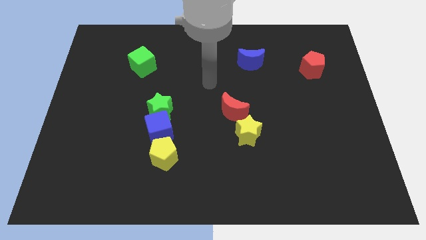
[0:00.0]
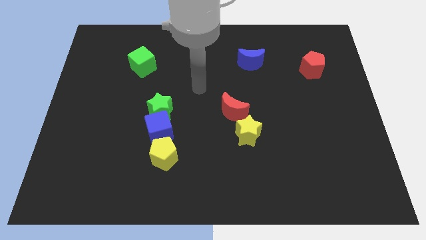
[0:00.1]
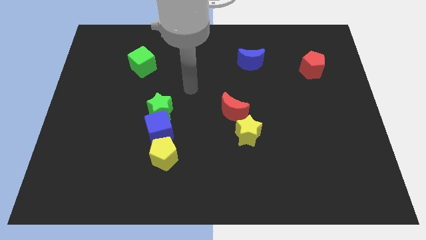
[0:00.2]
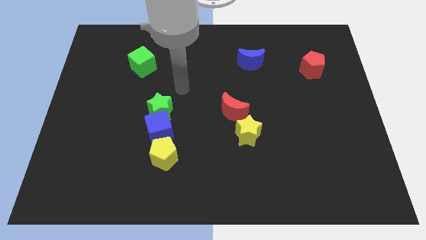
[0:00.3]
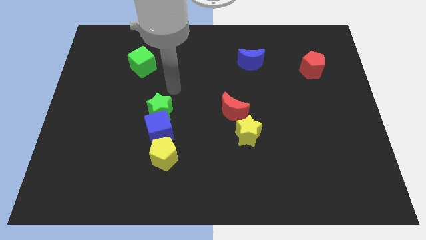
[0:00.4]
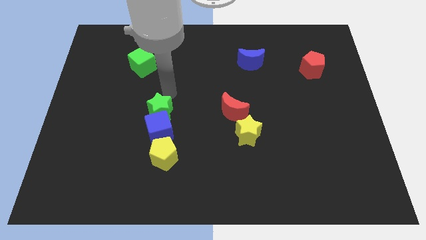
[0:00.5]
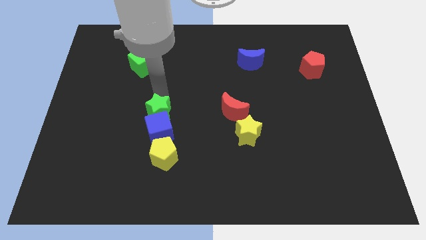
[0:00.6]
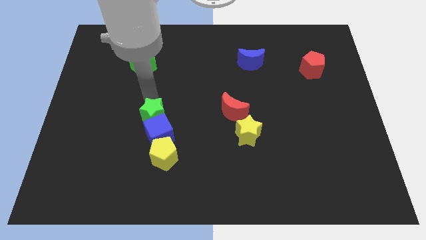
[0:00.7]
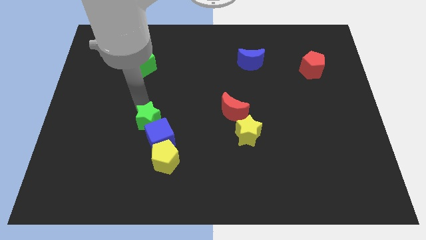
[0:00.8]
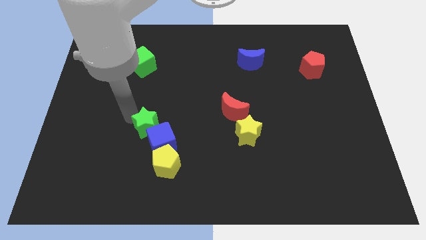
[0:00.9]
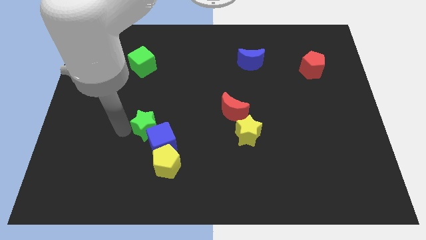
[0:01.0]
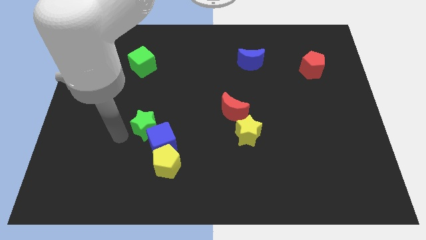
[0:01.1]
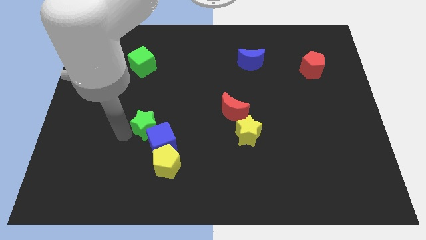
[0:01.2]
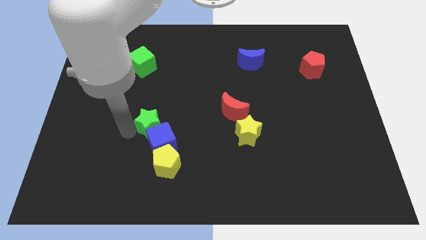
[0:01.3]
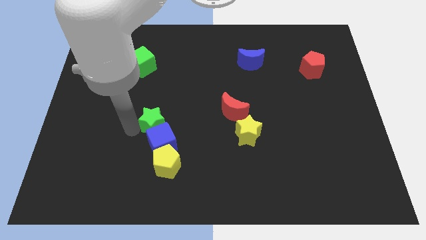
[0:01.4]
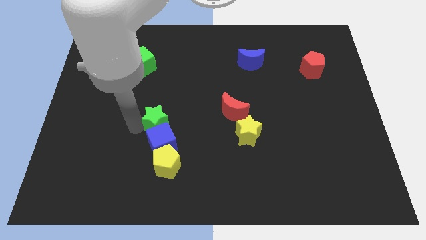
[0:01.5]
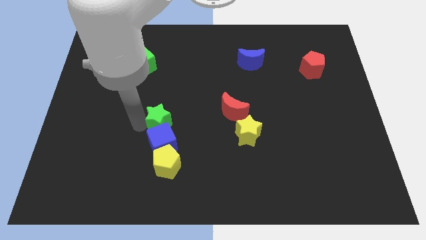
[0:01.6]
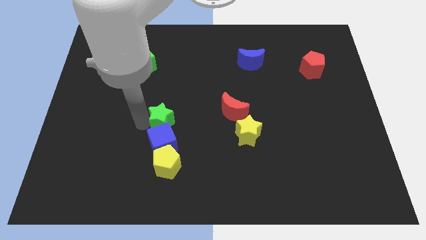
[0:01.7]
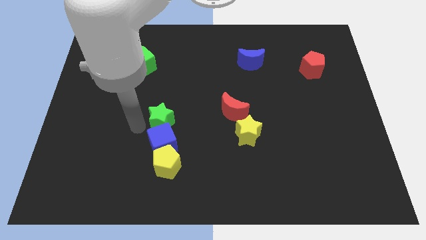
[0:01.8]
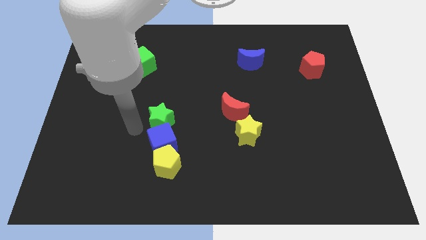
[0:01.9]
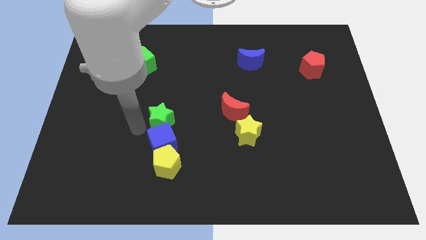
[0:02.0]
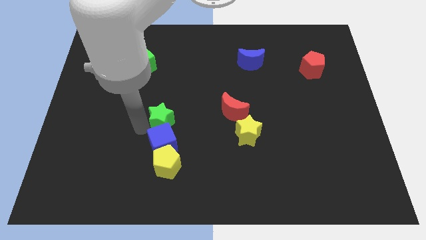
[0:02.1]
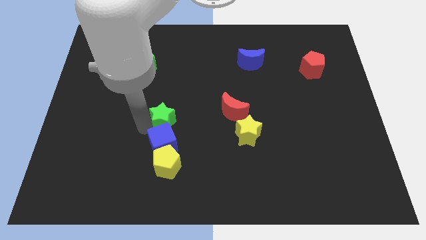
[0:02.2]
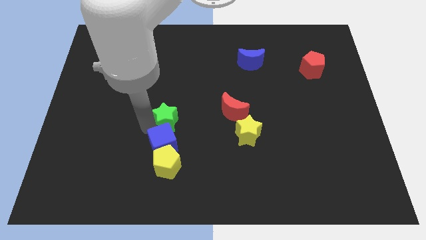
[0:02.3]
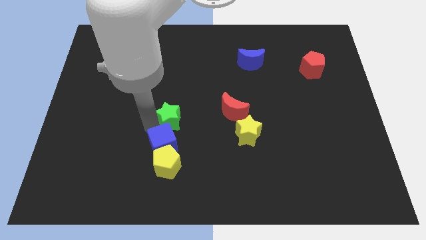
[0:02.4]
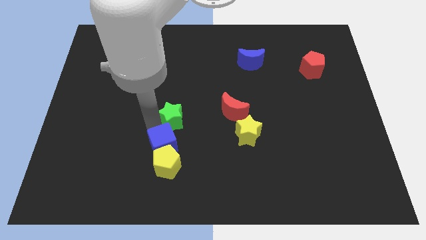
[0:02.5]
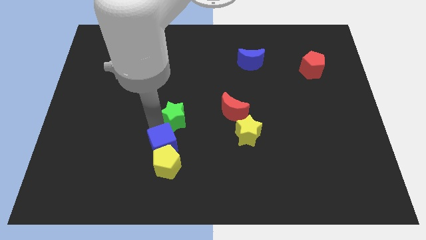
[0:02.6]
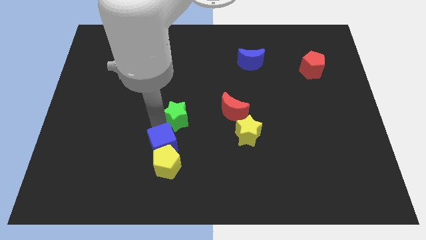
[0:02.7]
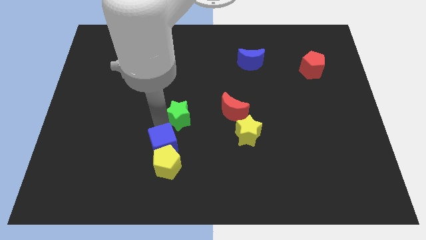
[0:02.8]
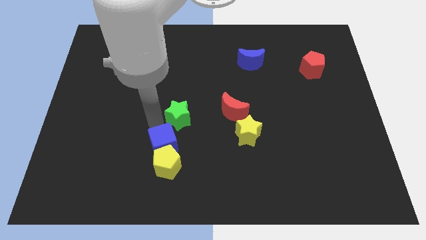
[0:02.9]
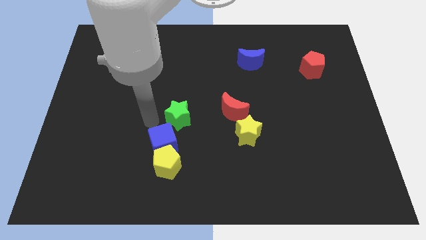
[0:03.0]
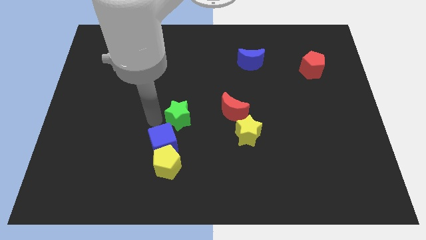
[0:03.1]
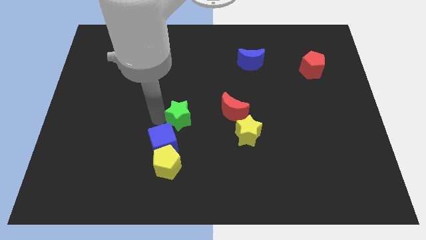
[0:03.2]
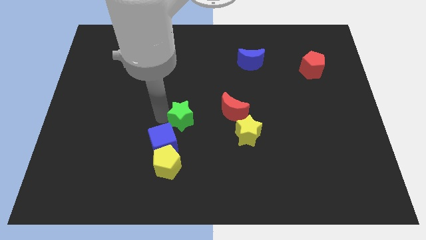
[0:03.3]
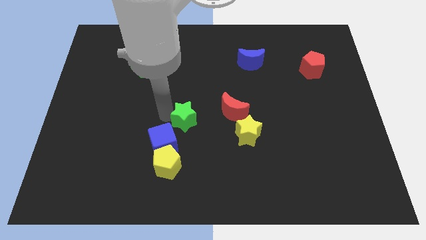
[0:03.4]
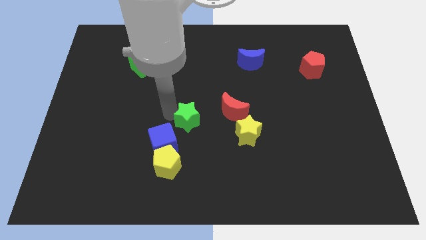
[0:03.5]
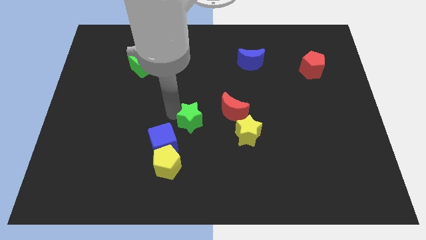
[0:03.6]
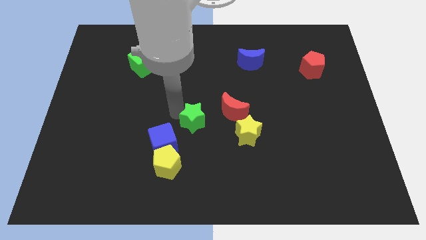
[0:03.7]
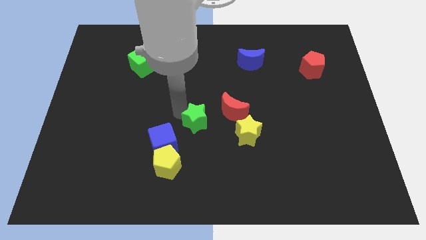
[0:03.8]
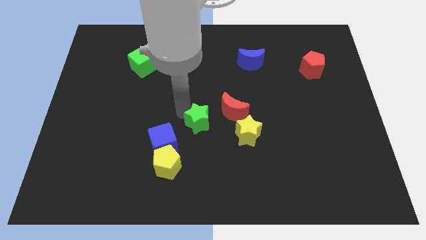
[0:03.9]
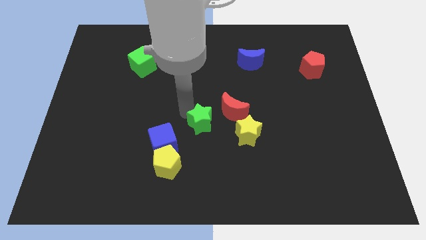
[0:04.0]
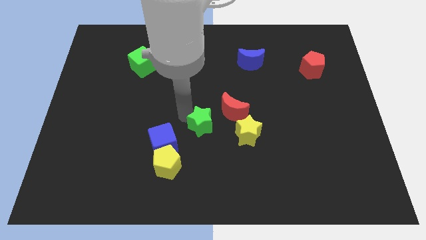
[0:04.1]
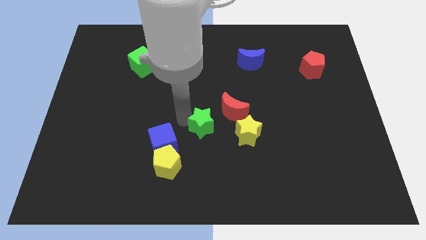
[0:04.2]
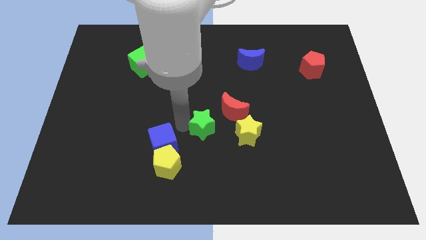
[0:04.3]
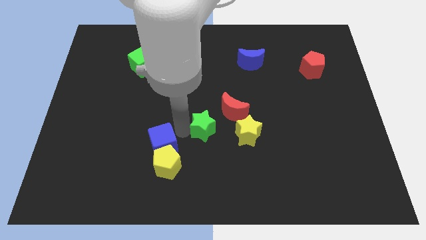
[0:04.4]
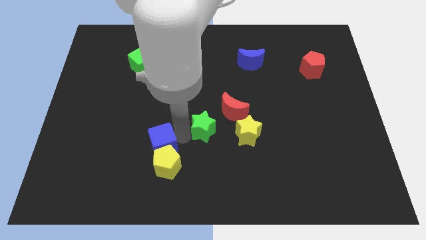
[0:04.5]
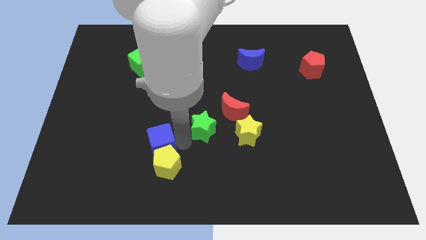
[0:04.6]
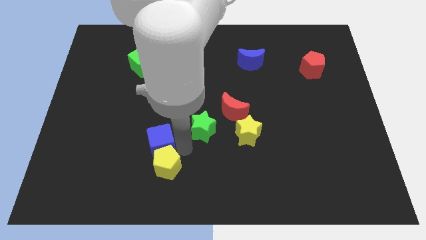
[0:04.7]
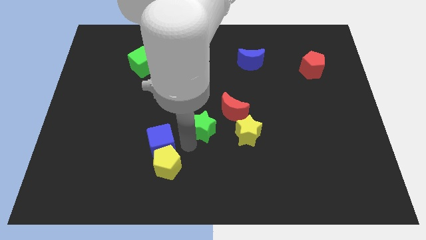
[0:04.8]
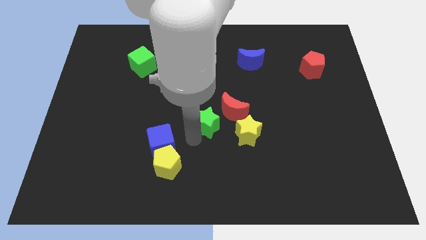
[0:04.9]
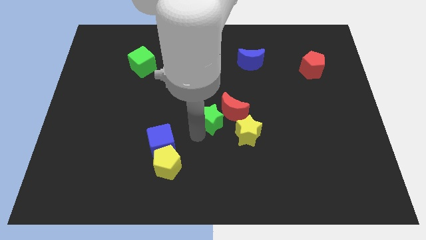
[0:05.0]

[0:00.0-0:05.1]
push the green star next to the red moon

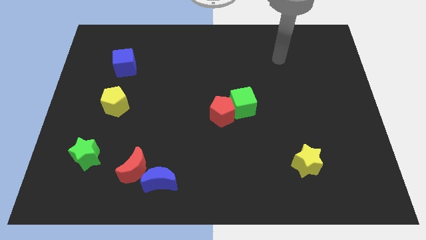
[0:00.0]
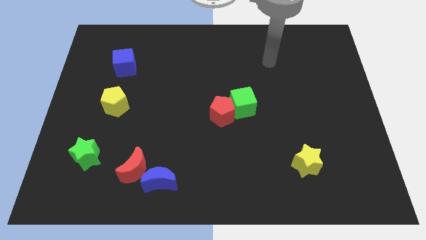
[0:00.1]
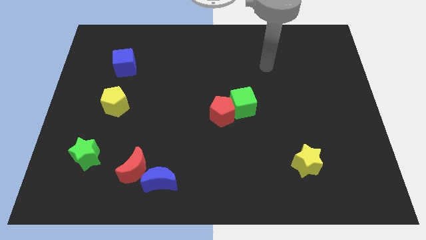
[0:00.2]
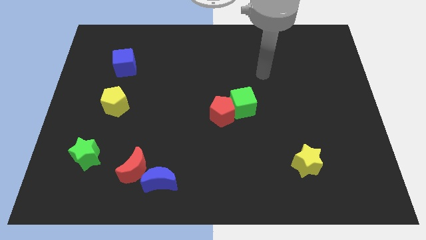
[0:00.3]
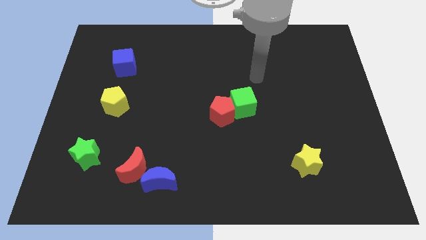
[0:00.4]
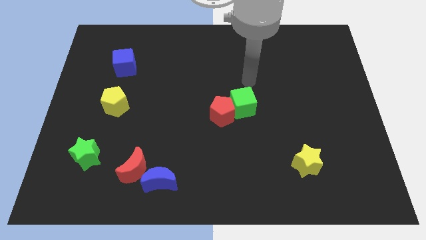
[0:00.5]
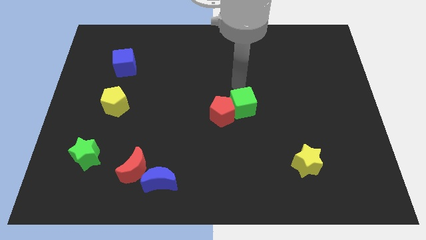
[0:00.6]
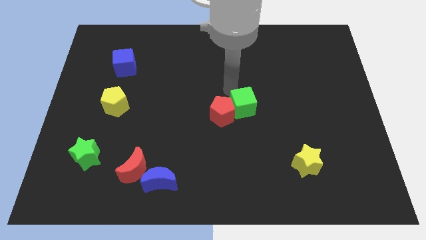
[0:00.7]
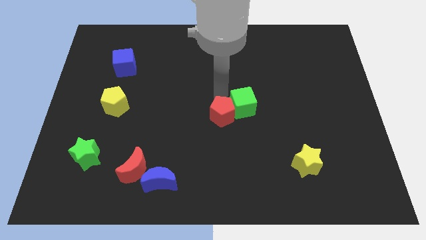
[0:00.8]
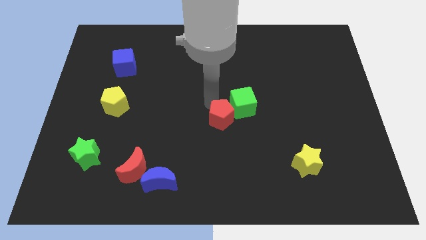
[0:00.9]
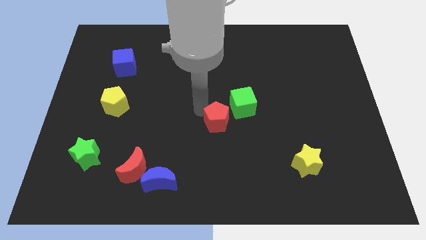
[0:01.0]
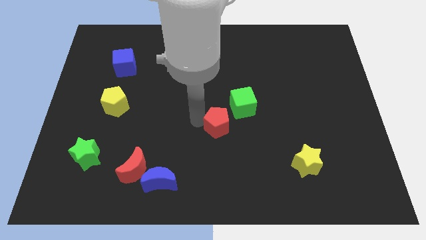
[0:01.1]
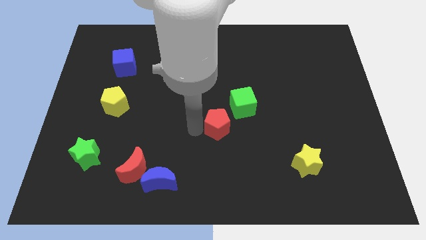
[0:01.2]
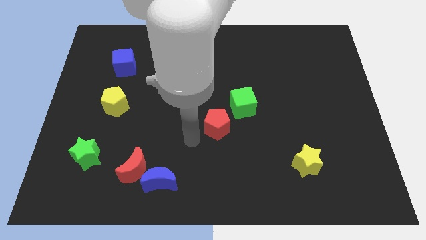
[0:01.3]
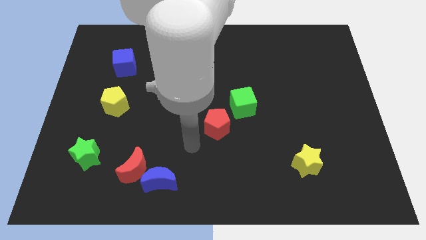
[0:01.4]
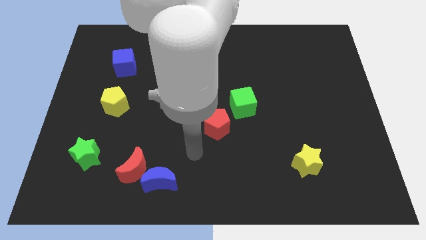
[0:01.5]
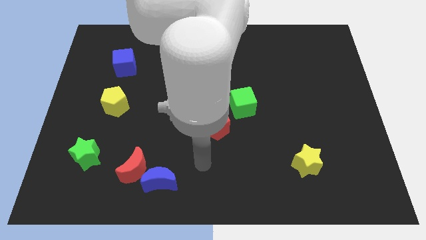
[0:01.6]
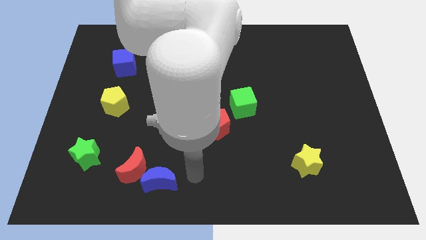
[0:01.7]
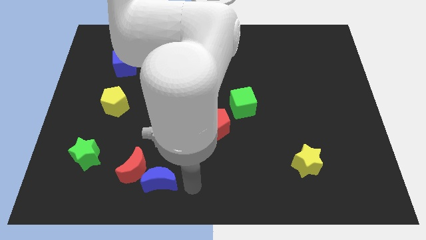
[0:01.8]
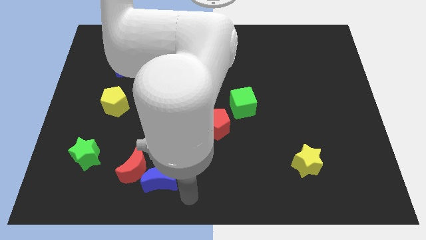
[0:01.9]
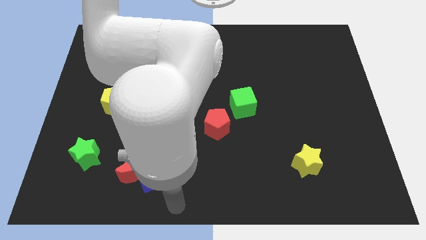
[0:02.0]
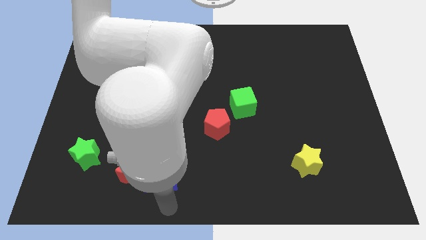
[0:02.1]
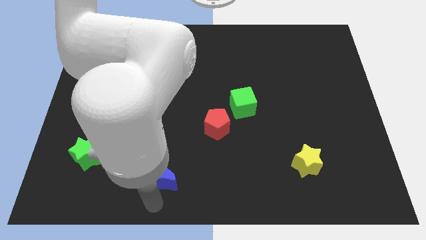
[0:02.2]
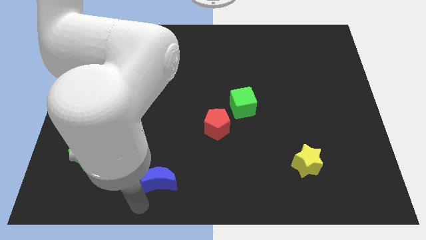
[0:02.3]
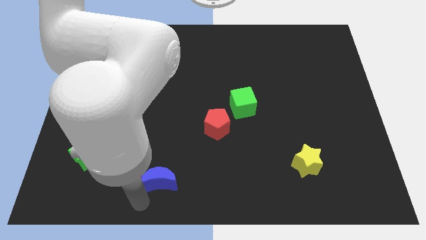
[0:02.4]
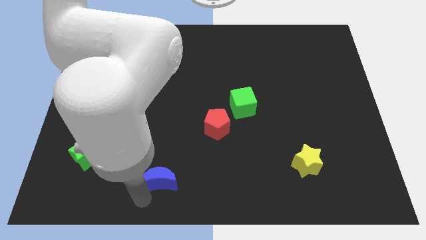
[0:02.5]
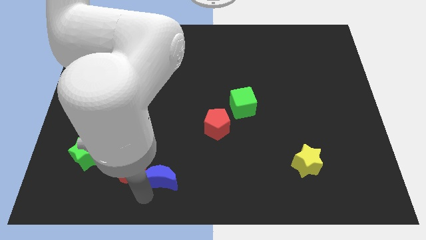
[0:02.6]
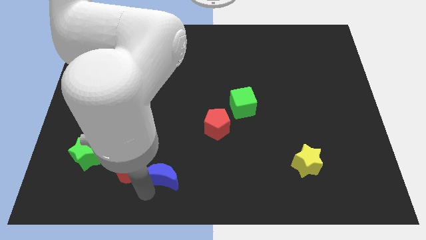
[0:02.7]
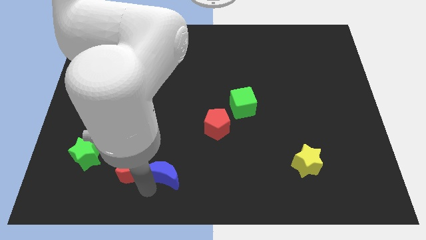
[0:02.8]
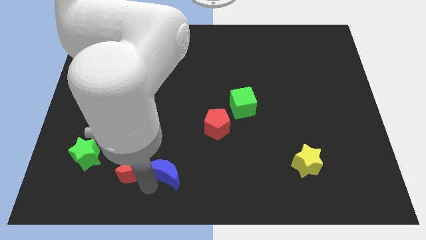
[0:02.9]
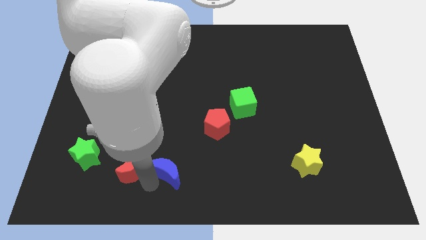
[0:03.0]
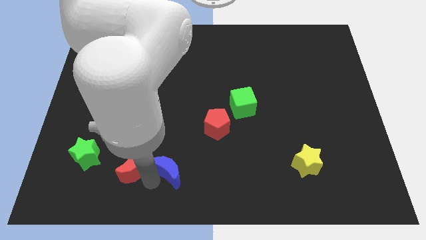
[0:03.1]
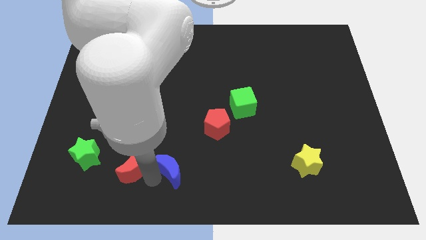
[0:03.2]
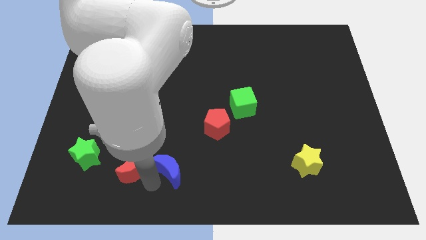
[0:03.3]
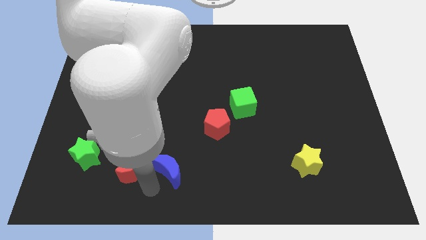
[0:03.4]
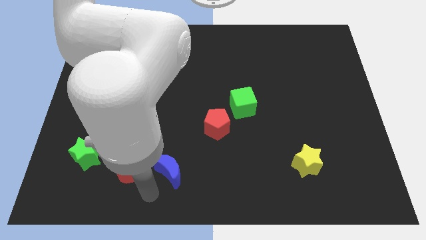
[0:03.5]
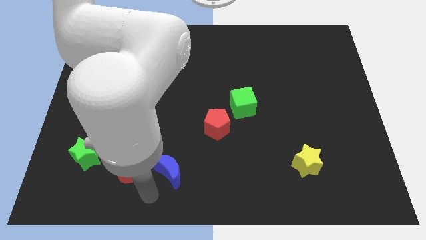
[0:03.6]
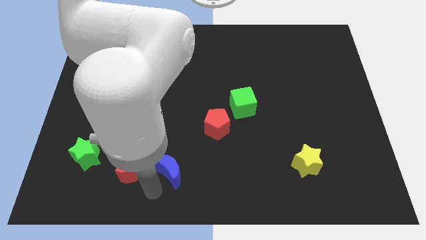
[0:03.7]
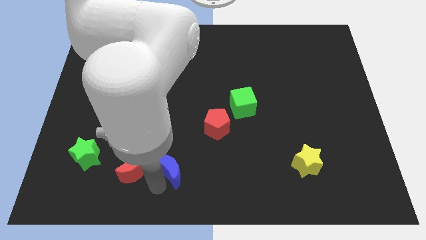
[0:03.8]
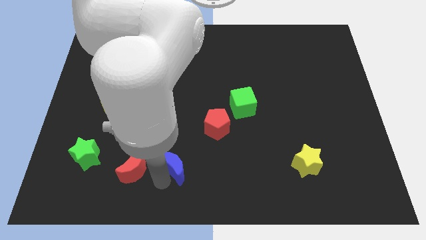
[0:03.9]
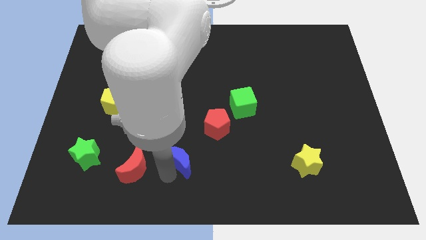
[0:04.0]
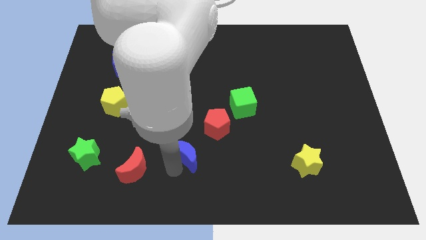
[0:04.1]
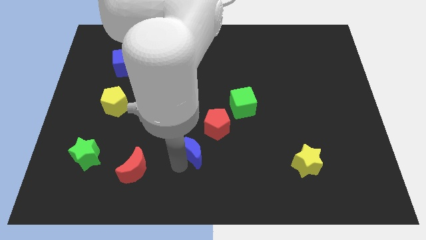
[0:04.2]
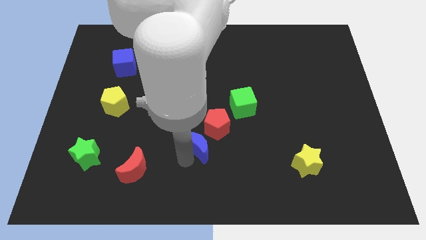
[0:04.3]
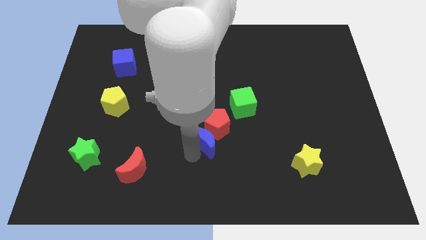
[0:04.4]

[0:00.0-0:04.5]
slide the blue moon next to the red pentagon
